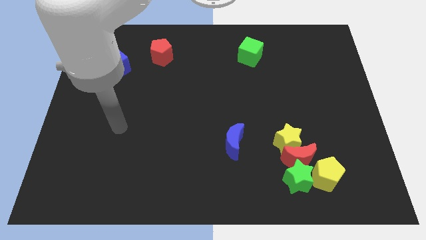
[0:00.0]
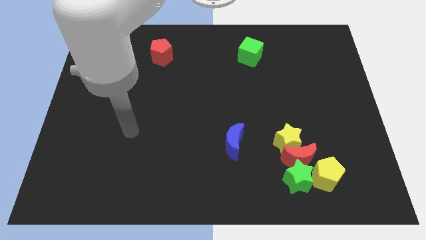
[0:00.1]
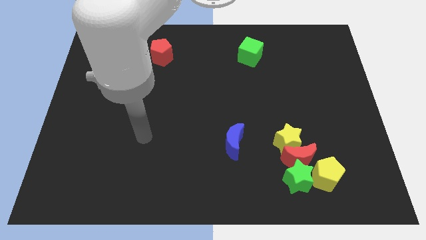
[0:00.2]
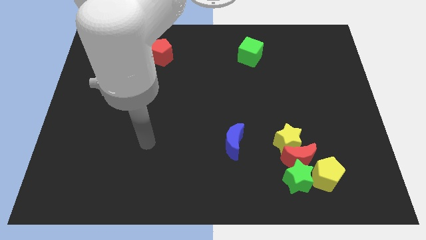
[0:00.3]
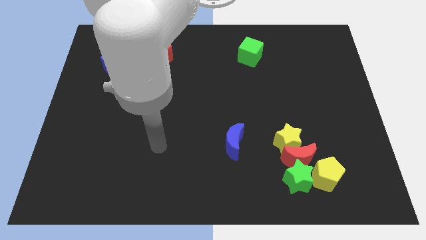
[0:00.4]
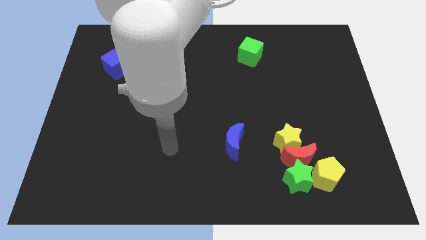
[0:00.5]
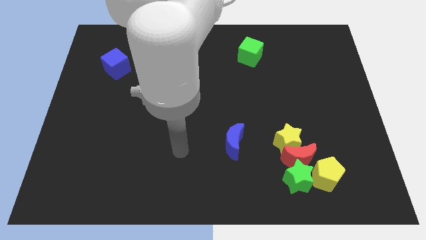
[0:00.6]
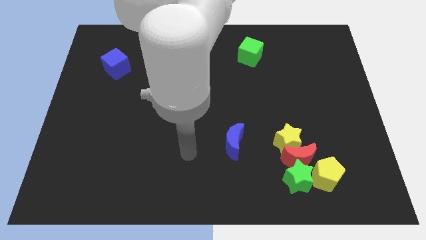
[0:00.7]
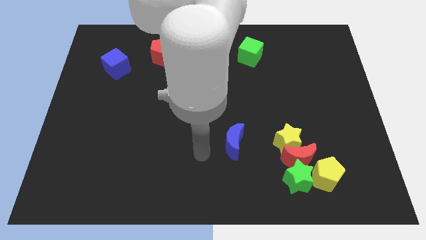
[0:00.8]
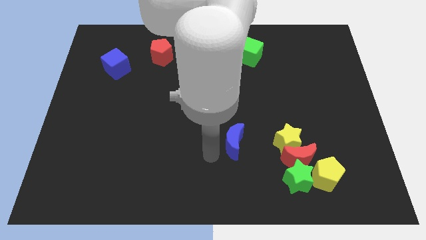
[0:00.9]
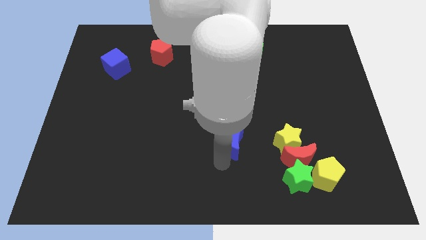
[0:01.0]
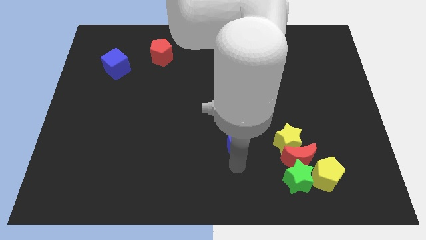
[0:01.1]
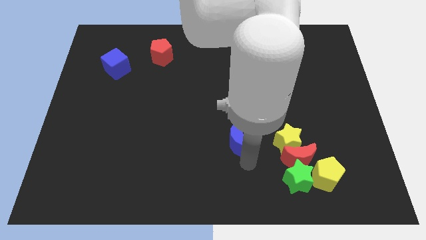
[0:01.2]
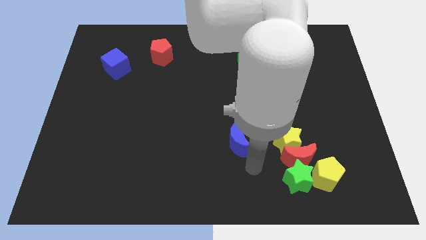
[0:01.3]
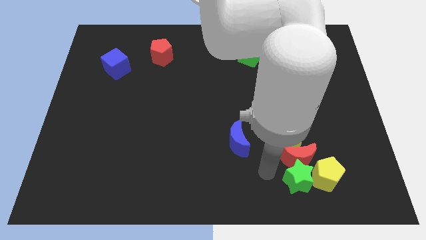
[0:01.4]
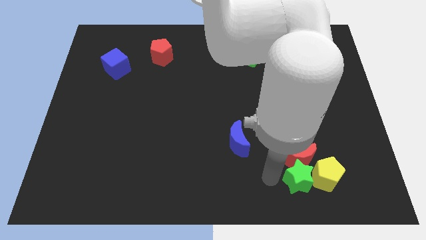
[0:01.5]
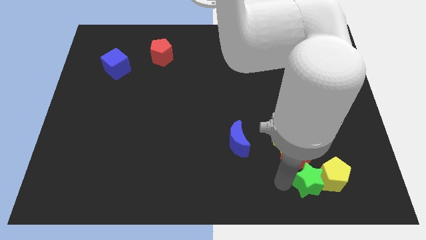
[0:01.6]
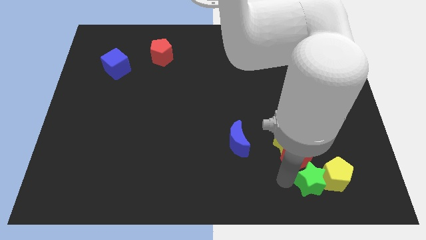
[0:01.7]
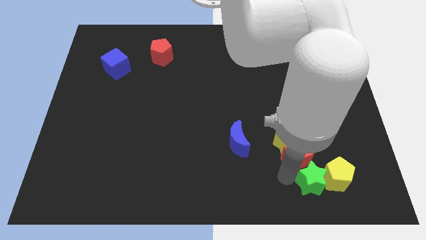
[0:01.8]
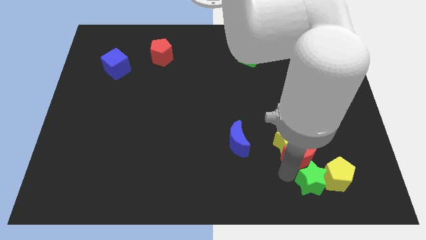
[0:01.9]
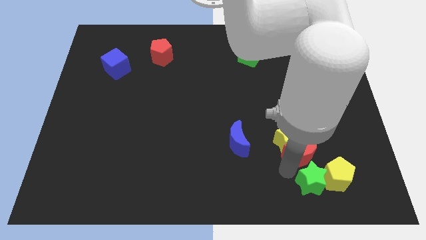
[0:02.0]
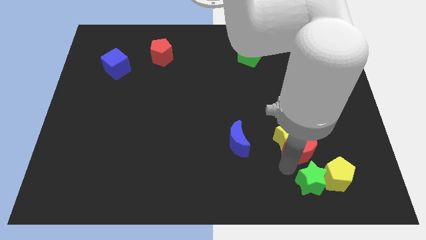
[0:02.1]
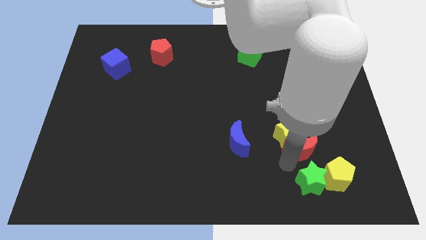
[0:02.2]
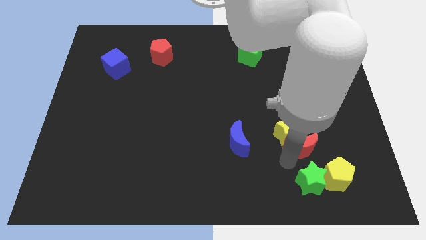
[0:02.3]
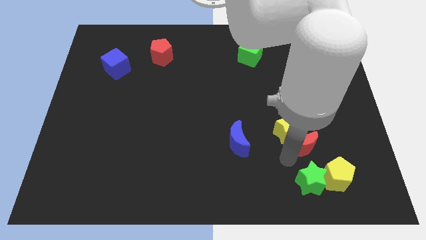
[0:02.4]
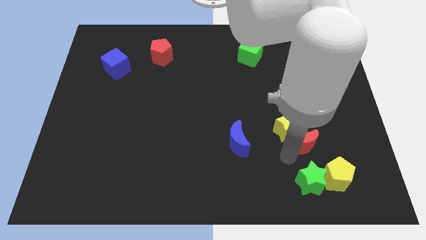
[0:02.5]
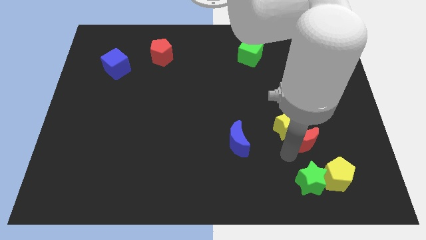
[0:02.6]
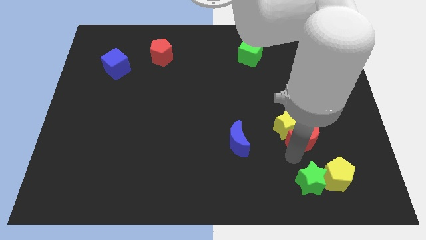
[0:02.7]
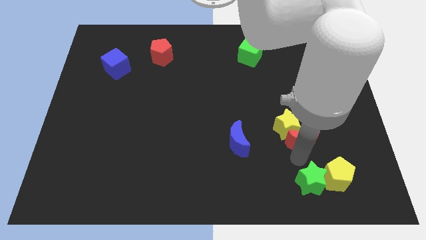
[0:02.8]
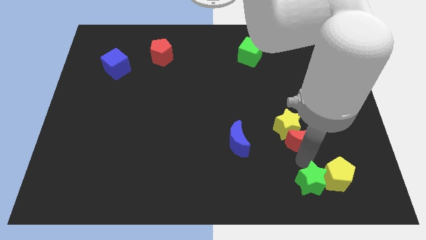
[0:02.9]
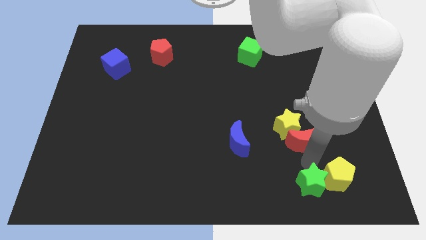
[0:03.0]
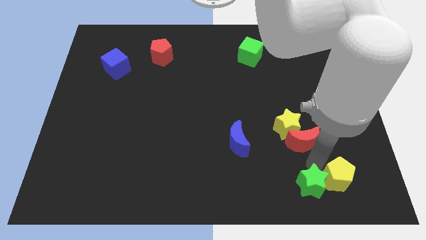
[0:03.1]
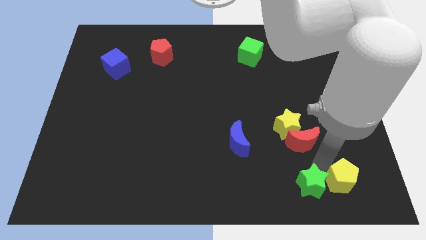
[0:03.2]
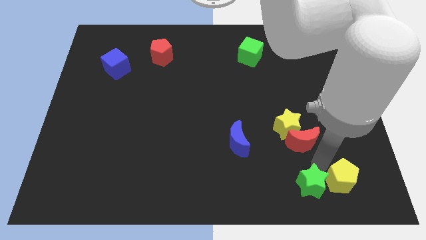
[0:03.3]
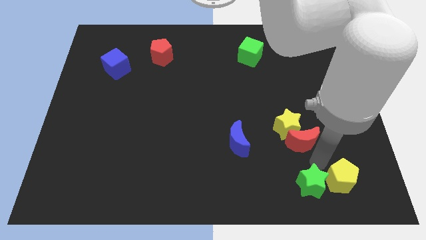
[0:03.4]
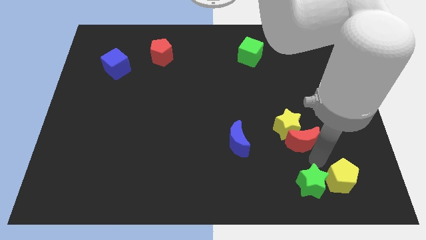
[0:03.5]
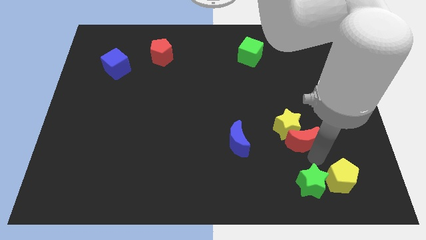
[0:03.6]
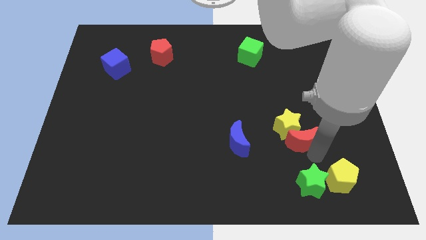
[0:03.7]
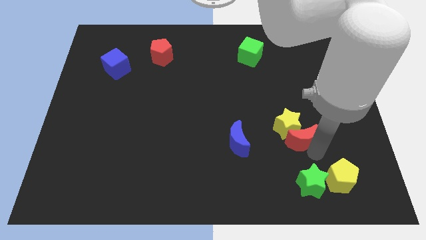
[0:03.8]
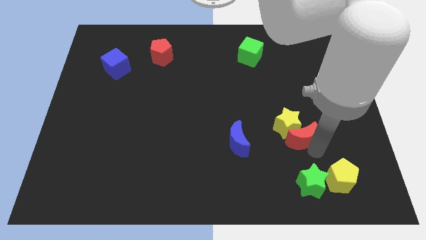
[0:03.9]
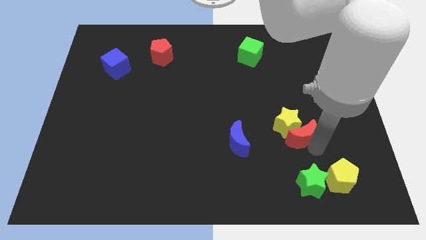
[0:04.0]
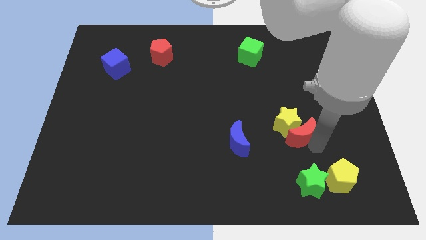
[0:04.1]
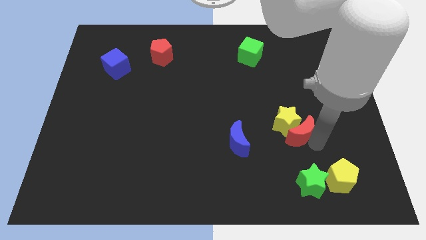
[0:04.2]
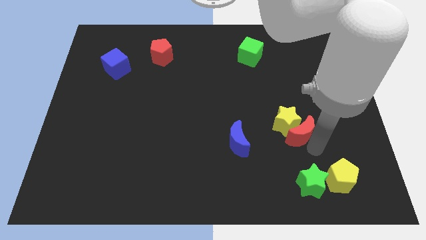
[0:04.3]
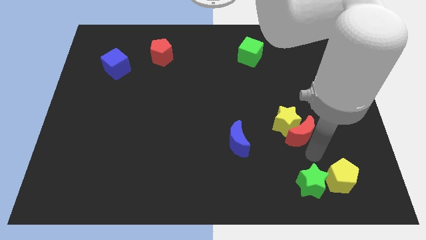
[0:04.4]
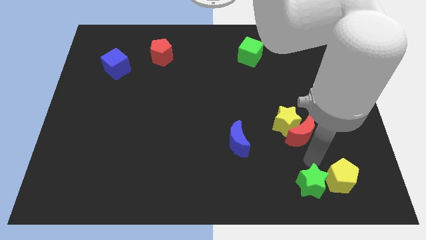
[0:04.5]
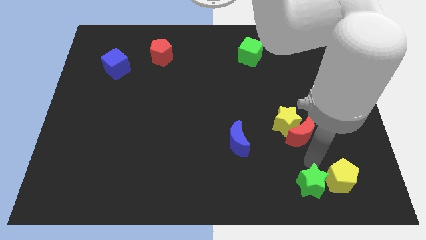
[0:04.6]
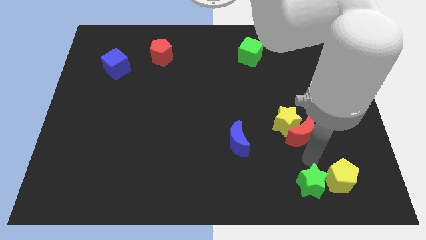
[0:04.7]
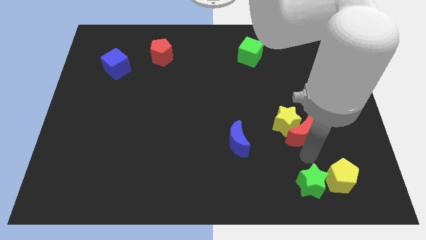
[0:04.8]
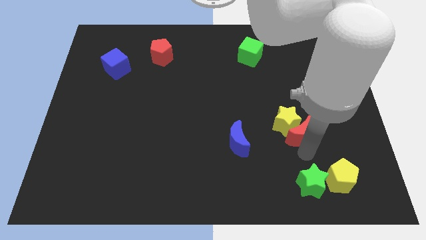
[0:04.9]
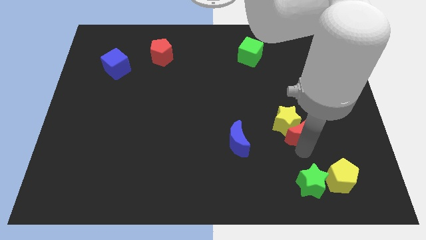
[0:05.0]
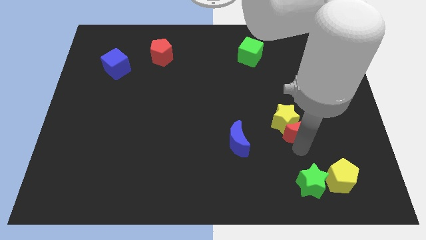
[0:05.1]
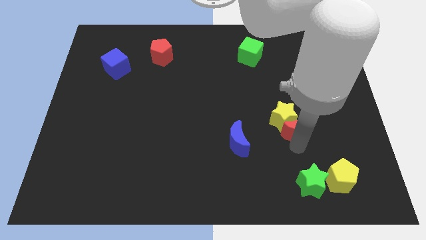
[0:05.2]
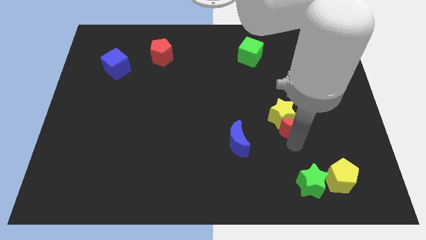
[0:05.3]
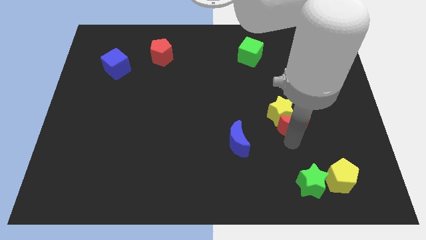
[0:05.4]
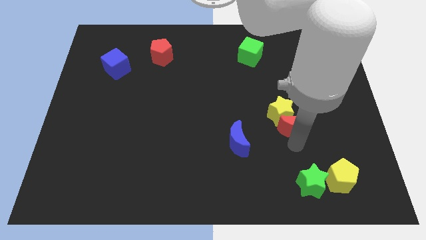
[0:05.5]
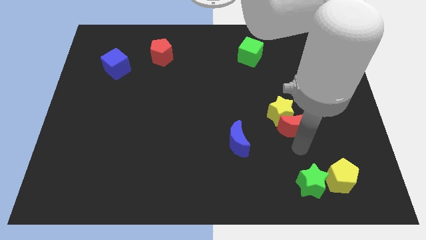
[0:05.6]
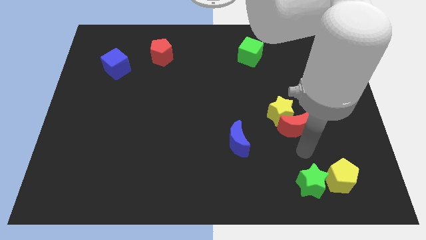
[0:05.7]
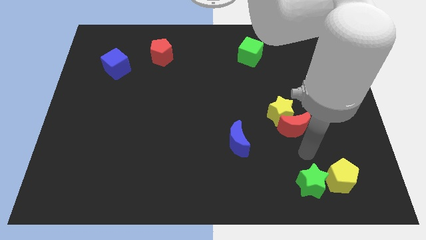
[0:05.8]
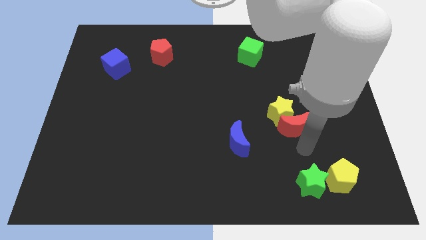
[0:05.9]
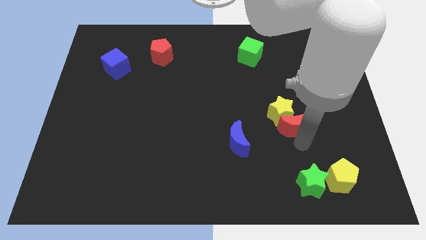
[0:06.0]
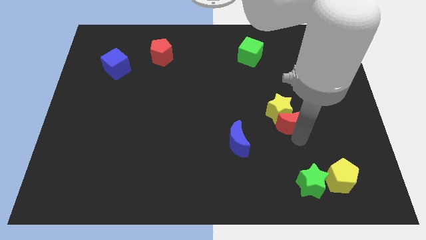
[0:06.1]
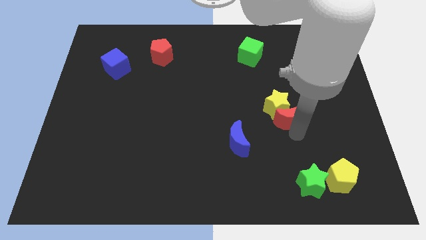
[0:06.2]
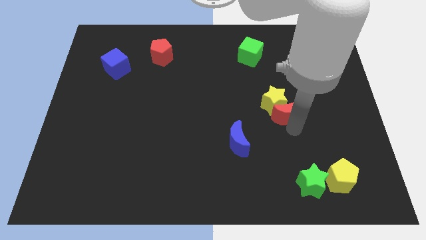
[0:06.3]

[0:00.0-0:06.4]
move the red moon away from the group of blocks

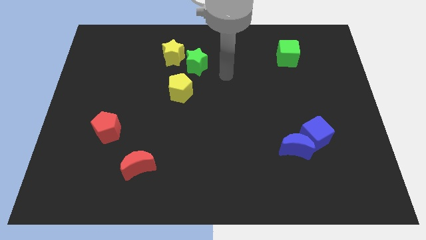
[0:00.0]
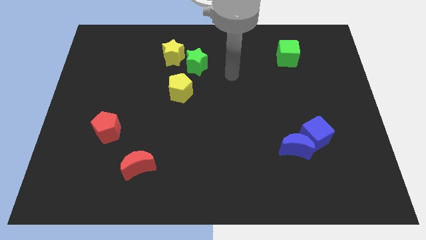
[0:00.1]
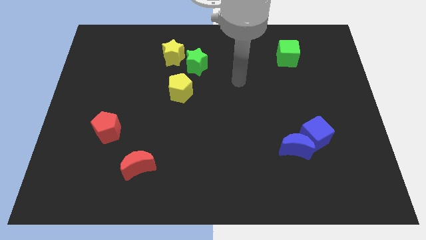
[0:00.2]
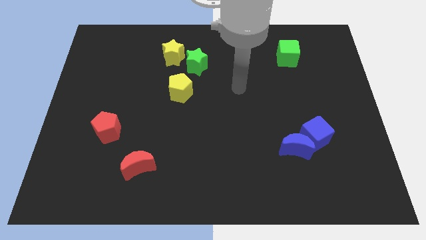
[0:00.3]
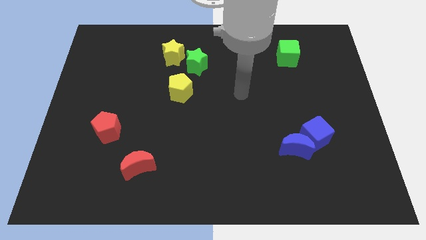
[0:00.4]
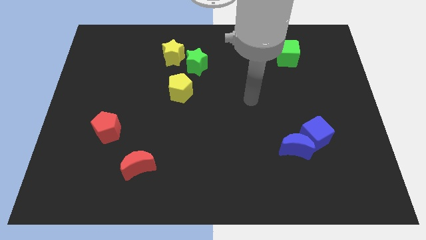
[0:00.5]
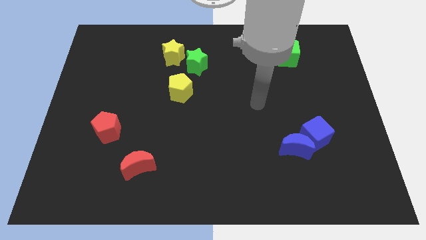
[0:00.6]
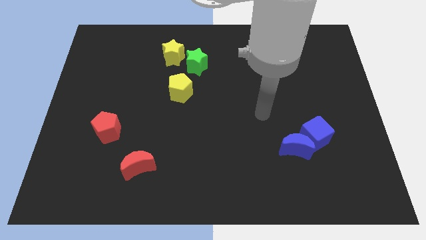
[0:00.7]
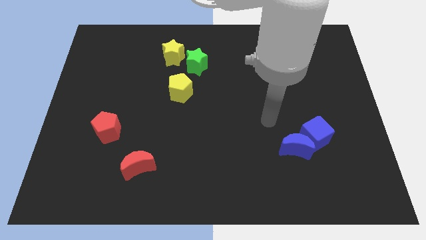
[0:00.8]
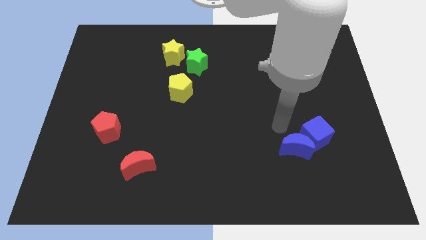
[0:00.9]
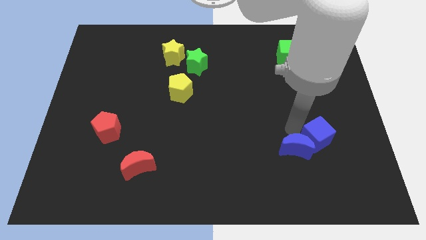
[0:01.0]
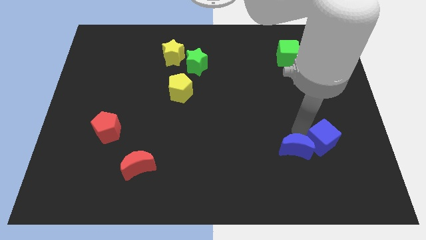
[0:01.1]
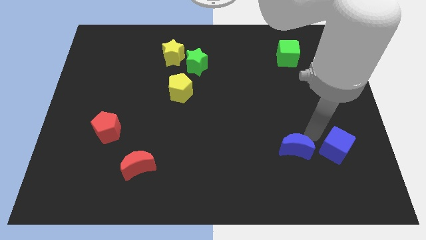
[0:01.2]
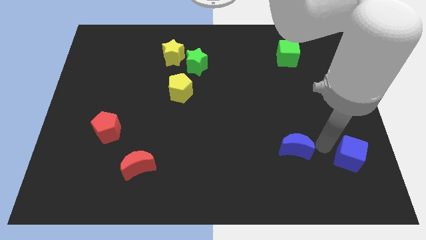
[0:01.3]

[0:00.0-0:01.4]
move the blue moon away from the blue cube

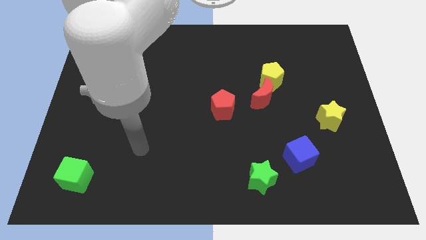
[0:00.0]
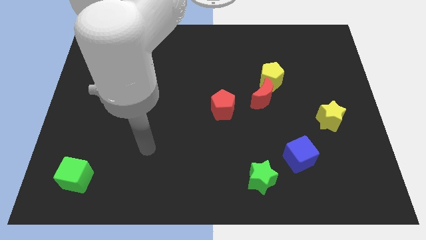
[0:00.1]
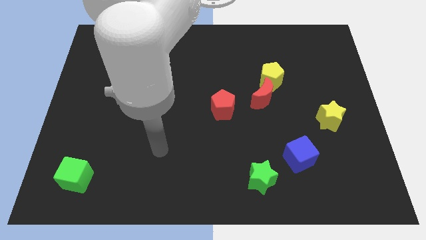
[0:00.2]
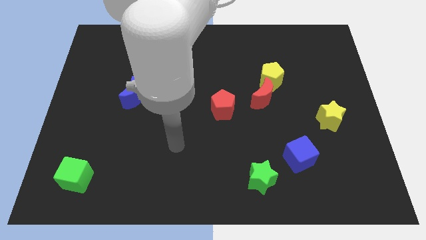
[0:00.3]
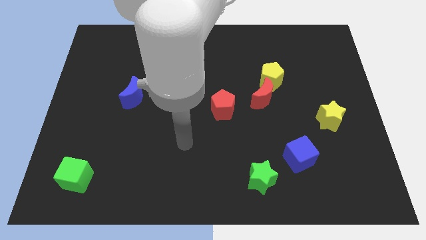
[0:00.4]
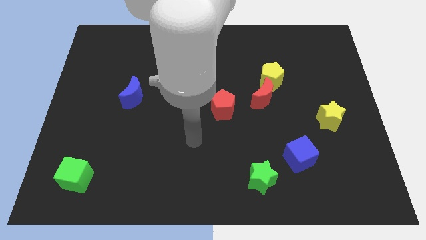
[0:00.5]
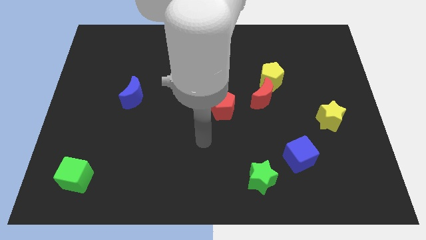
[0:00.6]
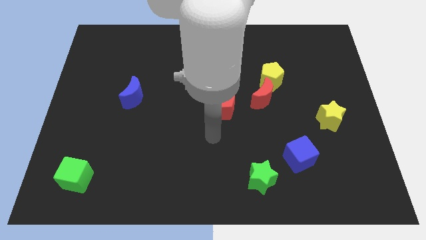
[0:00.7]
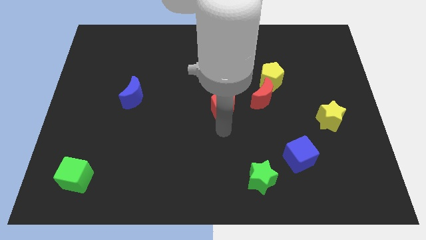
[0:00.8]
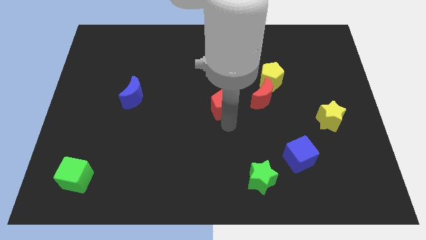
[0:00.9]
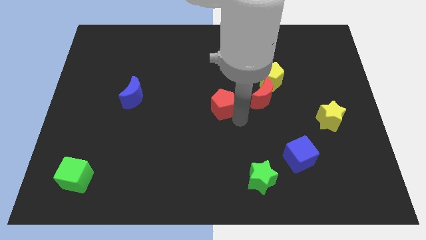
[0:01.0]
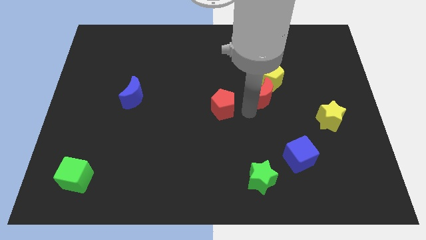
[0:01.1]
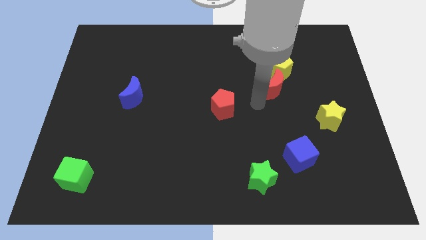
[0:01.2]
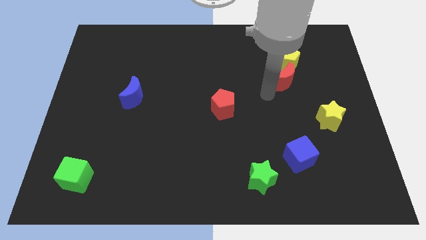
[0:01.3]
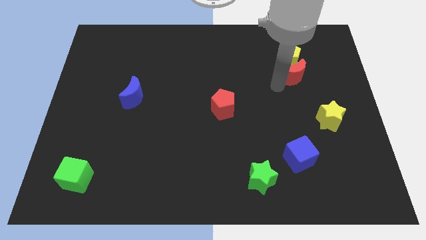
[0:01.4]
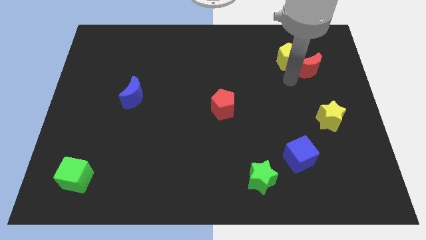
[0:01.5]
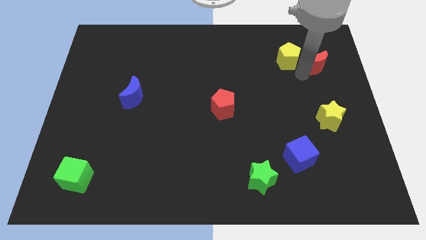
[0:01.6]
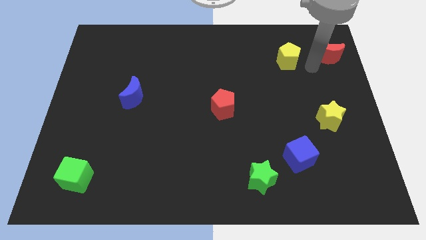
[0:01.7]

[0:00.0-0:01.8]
pull the yellow pentagon apart from the red moon
